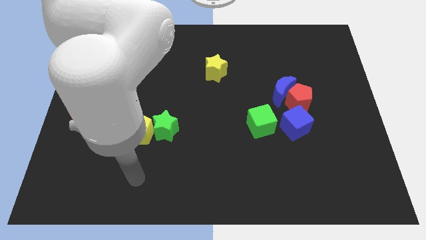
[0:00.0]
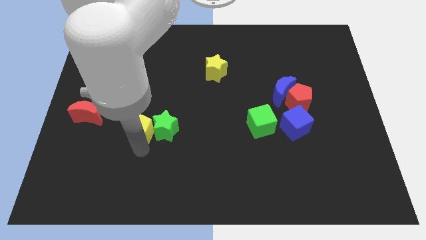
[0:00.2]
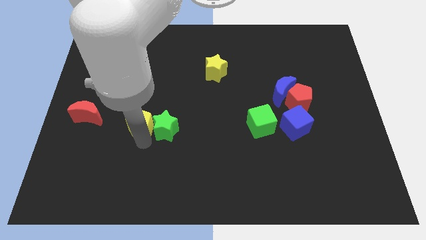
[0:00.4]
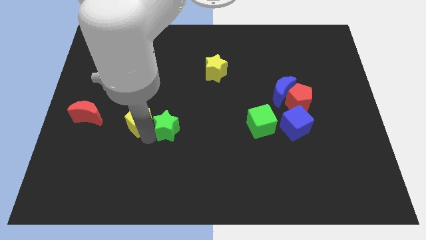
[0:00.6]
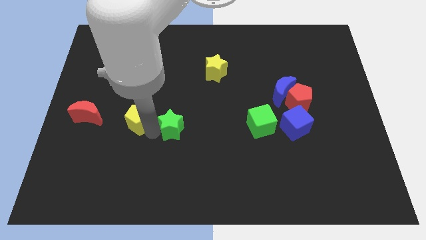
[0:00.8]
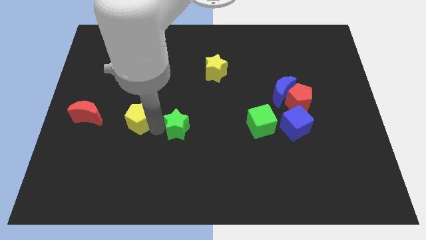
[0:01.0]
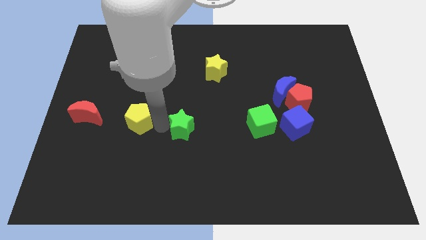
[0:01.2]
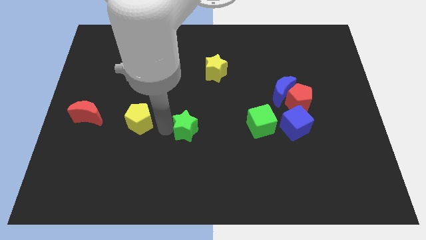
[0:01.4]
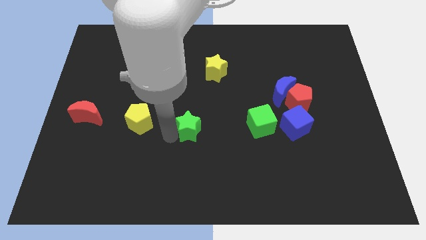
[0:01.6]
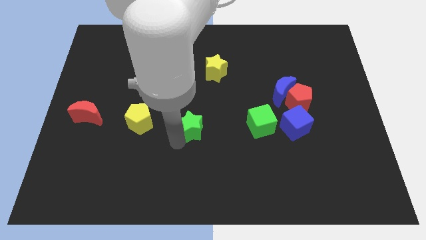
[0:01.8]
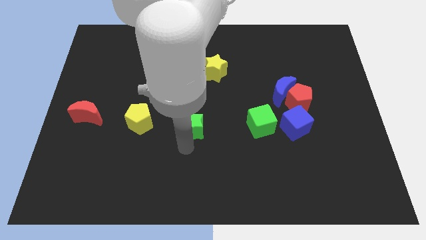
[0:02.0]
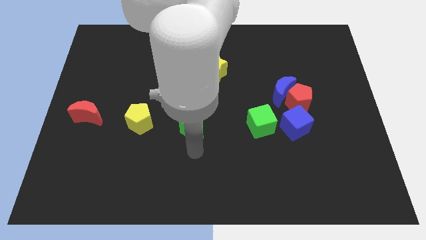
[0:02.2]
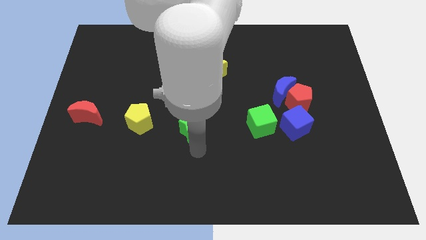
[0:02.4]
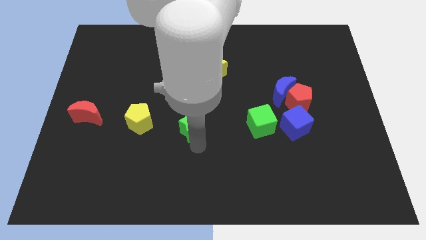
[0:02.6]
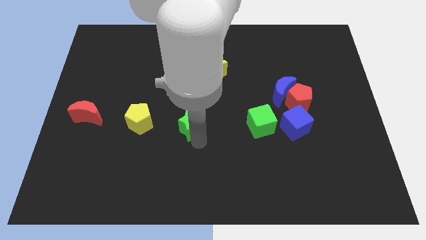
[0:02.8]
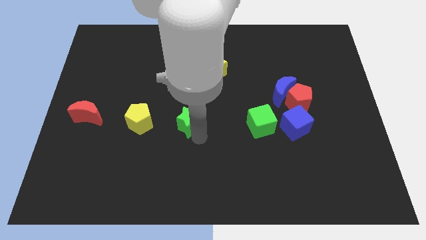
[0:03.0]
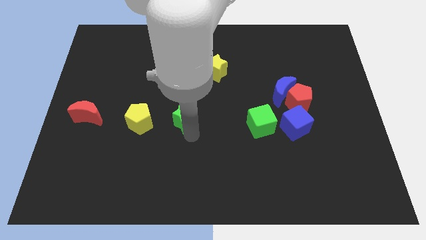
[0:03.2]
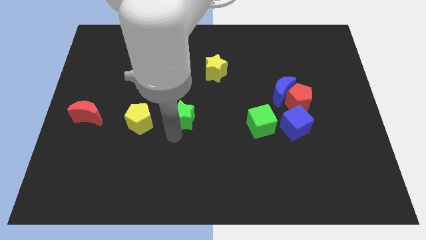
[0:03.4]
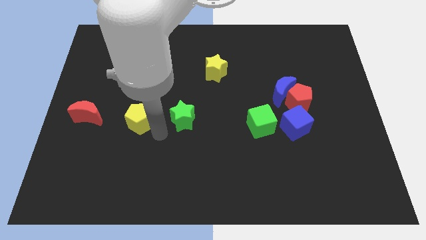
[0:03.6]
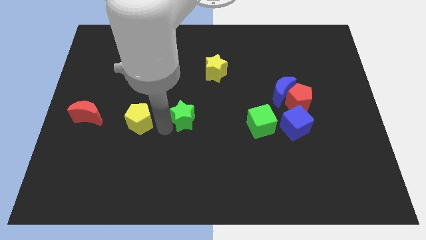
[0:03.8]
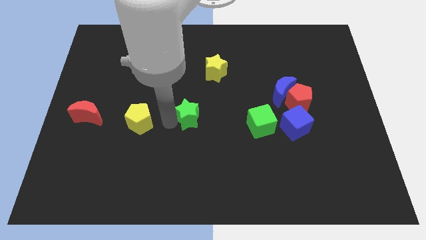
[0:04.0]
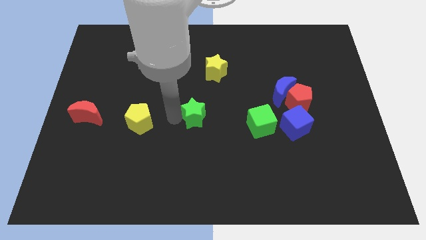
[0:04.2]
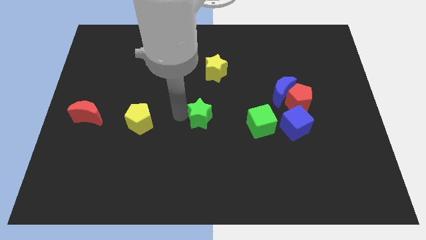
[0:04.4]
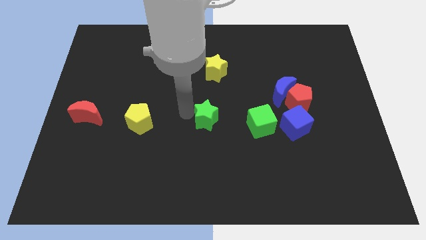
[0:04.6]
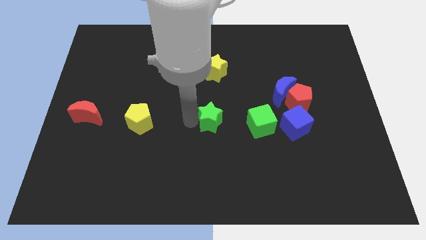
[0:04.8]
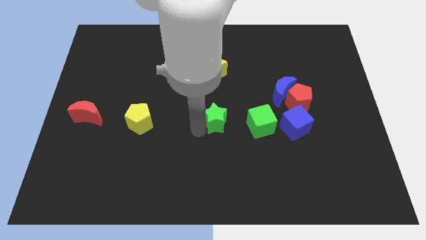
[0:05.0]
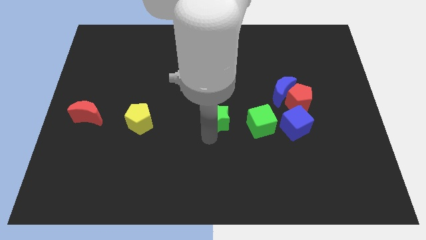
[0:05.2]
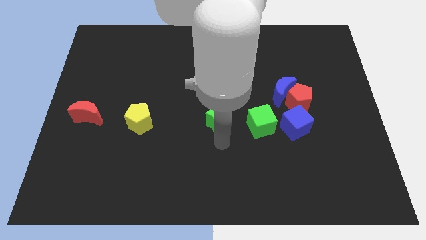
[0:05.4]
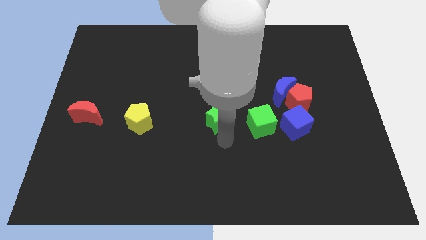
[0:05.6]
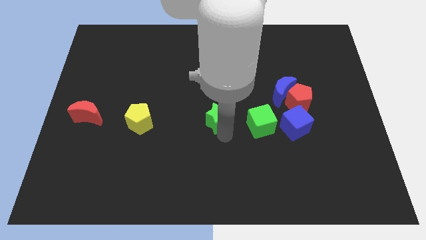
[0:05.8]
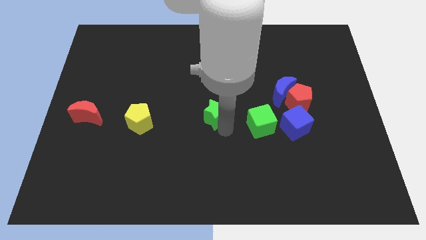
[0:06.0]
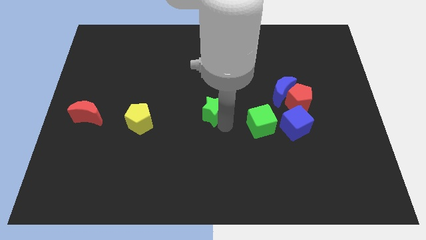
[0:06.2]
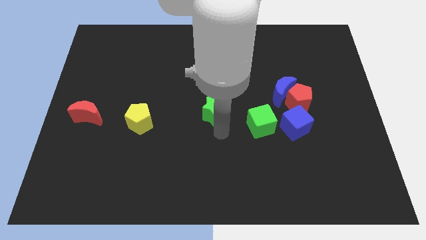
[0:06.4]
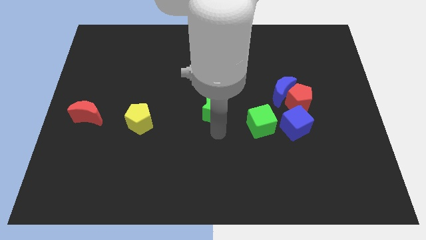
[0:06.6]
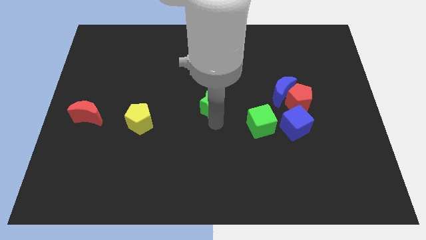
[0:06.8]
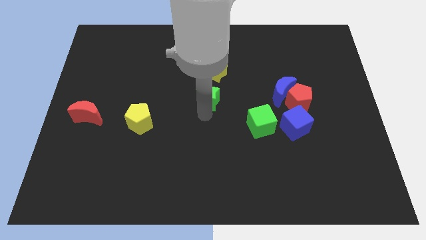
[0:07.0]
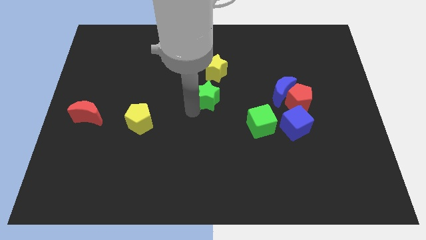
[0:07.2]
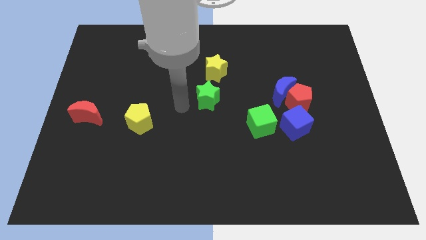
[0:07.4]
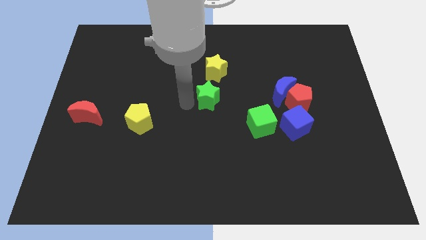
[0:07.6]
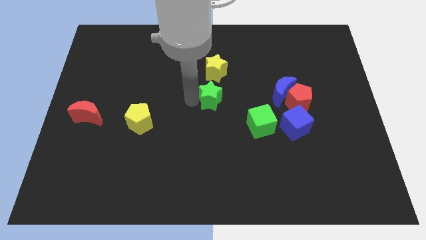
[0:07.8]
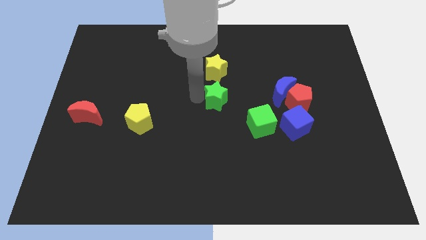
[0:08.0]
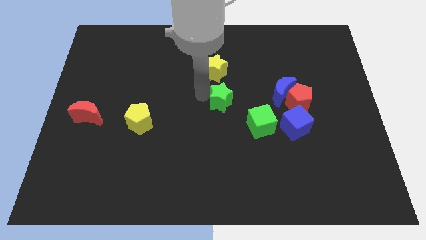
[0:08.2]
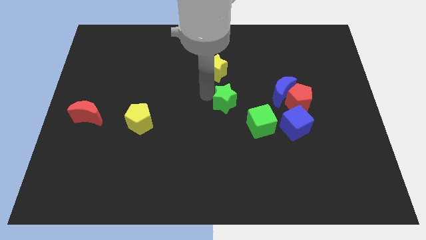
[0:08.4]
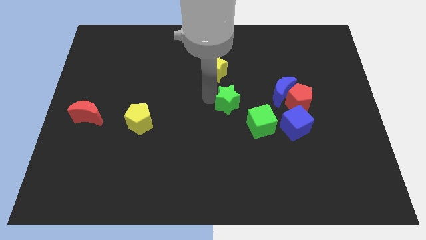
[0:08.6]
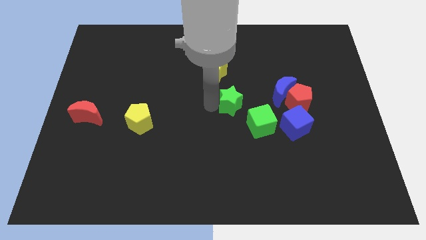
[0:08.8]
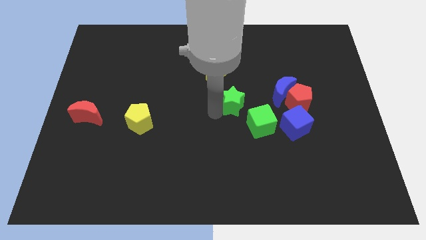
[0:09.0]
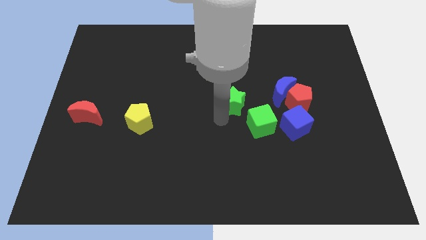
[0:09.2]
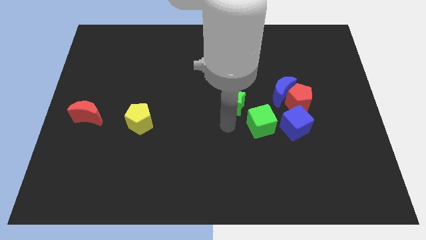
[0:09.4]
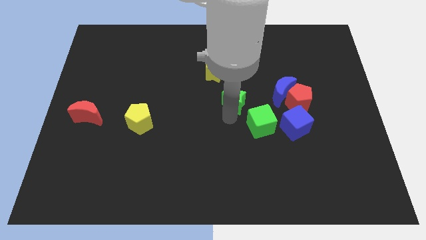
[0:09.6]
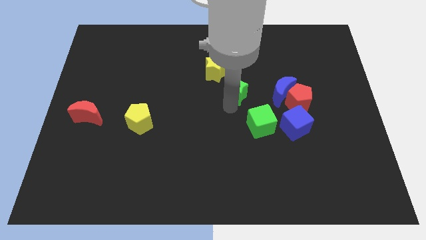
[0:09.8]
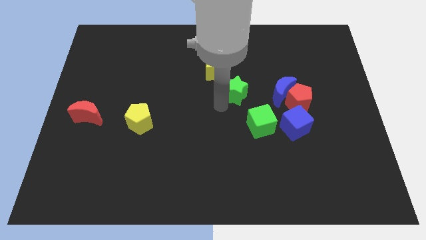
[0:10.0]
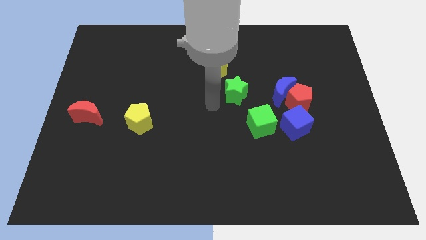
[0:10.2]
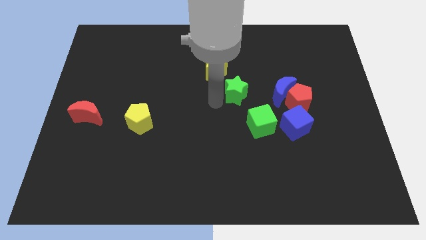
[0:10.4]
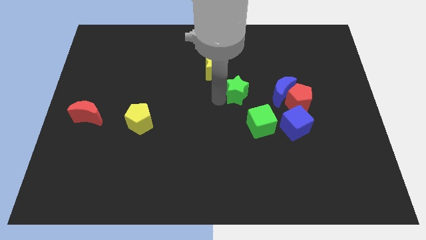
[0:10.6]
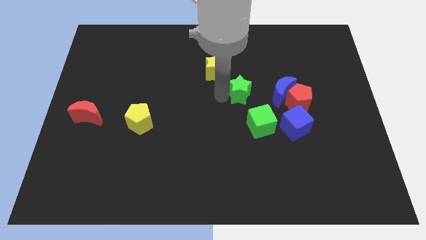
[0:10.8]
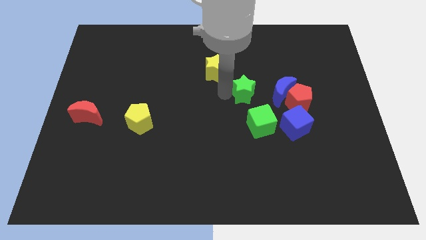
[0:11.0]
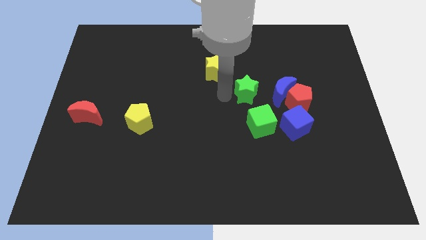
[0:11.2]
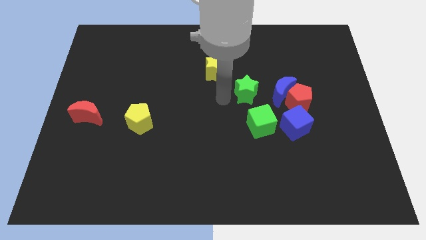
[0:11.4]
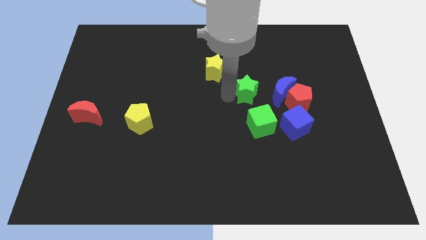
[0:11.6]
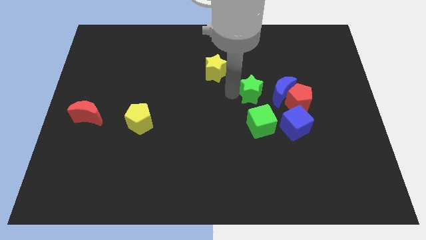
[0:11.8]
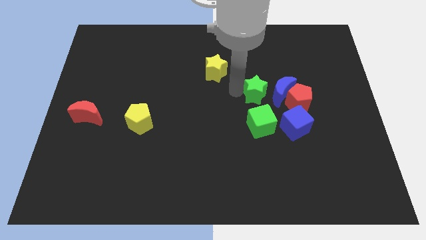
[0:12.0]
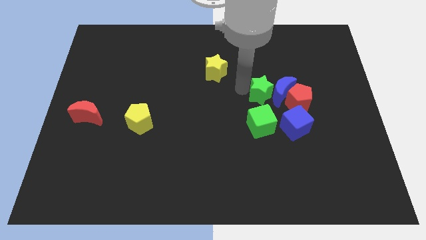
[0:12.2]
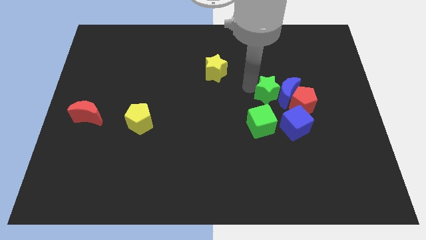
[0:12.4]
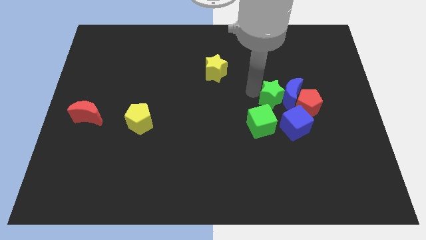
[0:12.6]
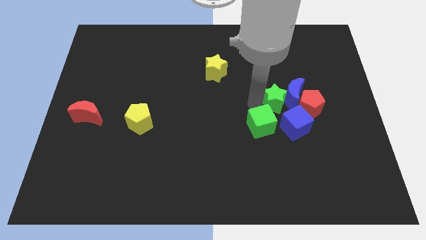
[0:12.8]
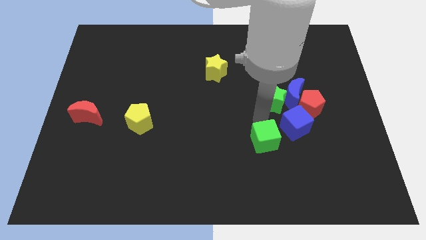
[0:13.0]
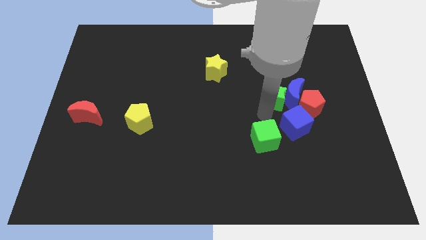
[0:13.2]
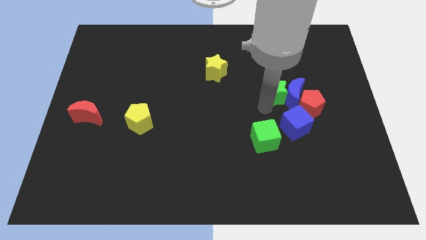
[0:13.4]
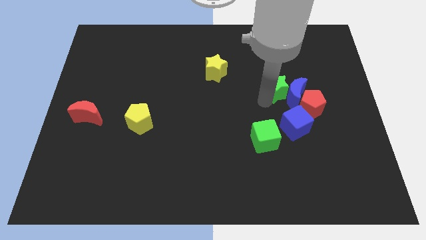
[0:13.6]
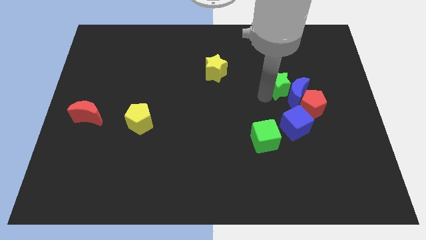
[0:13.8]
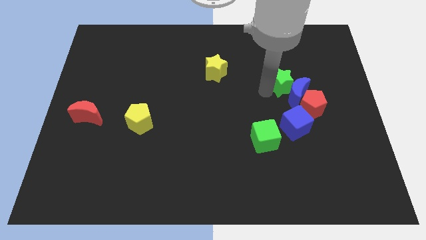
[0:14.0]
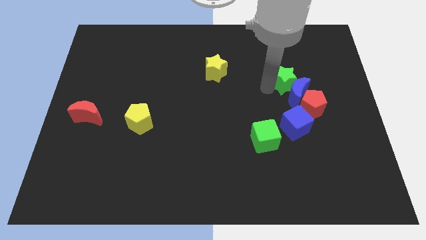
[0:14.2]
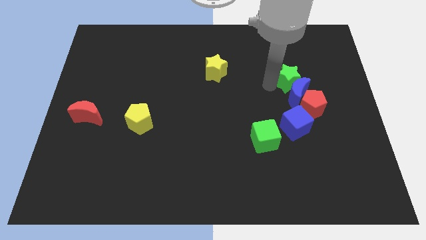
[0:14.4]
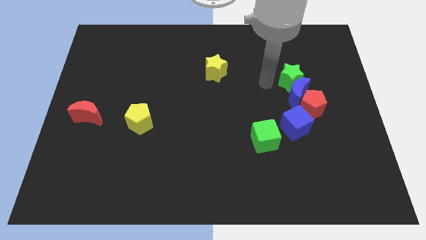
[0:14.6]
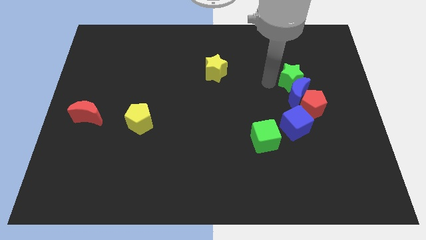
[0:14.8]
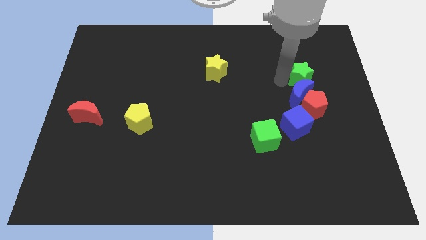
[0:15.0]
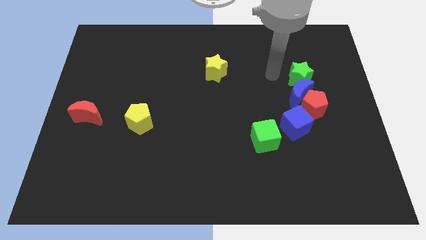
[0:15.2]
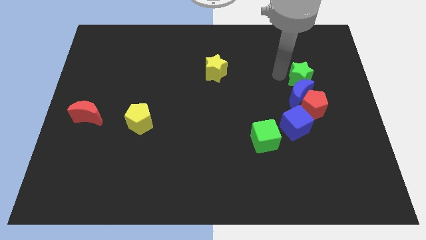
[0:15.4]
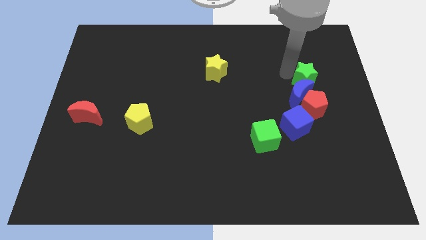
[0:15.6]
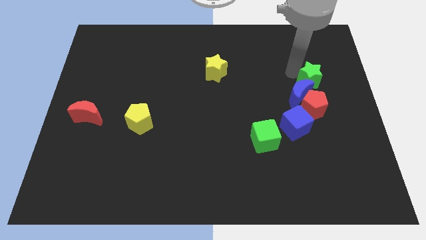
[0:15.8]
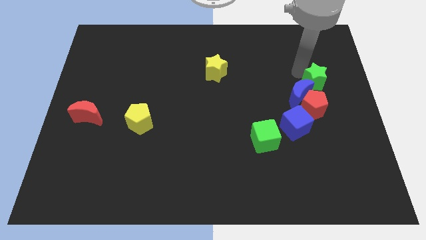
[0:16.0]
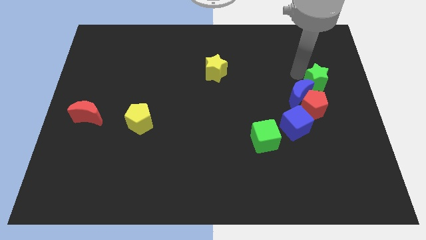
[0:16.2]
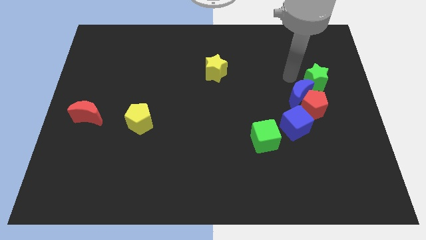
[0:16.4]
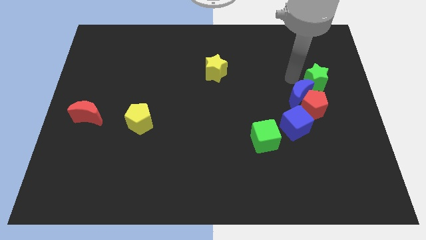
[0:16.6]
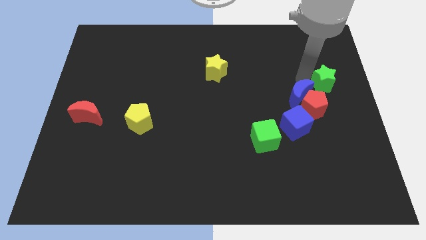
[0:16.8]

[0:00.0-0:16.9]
move the green star to the right side of the board
